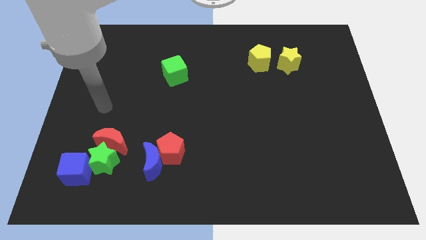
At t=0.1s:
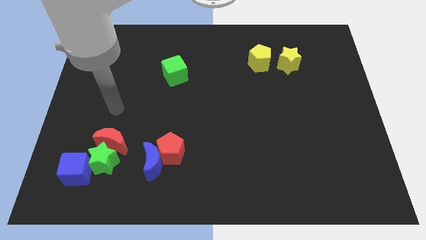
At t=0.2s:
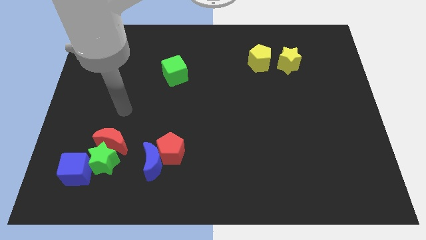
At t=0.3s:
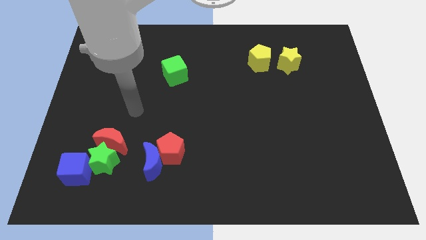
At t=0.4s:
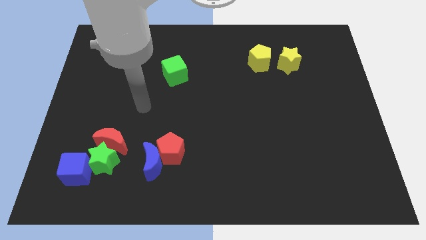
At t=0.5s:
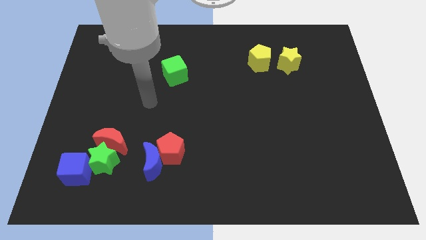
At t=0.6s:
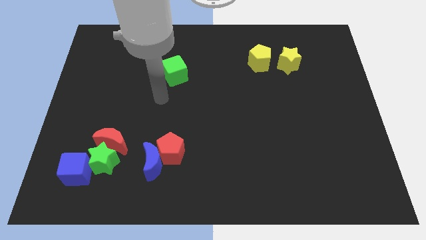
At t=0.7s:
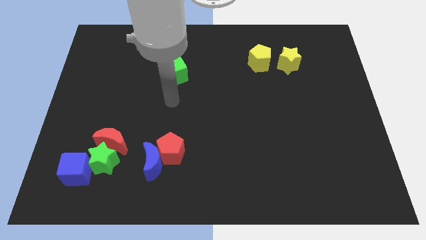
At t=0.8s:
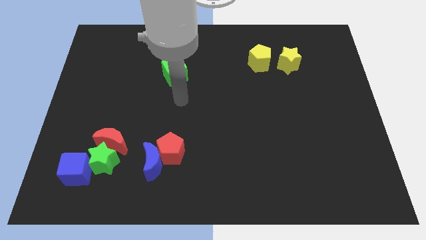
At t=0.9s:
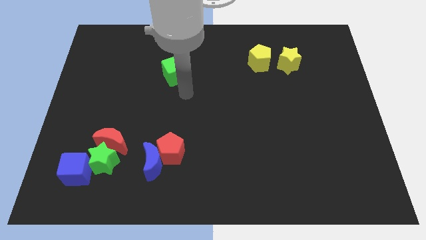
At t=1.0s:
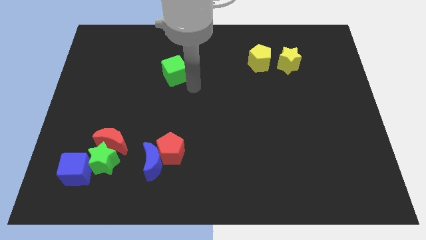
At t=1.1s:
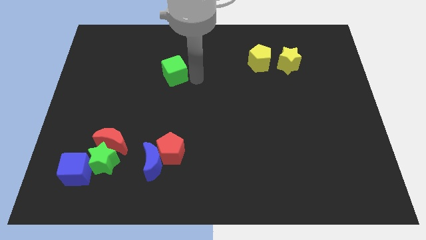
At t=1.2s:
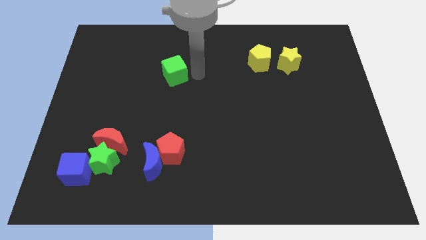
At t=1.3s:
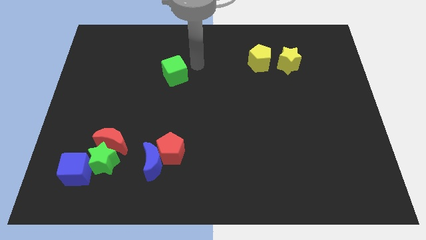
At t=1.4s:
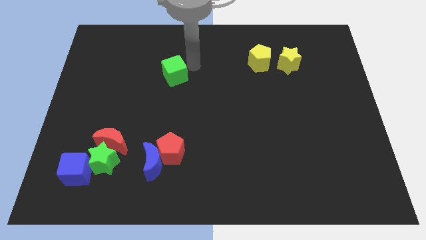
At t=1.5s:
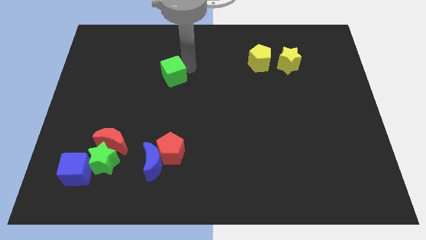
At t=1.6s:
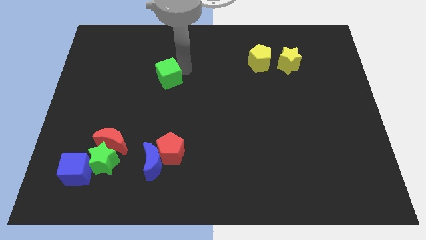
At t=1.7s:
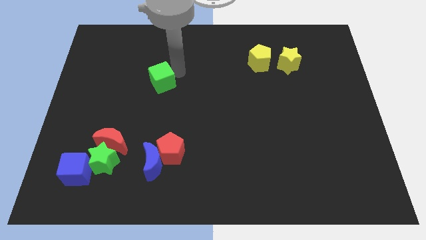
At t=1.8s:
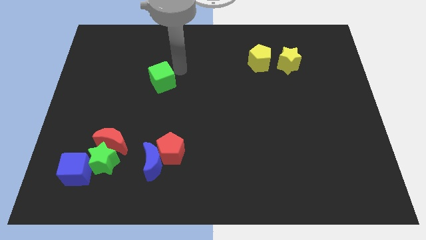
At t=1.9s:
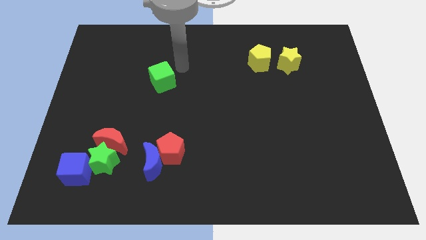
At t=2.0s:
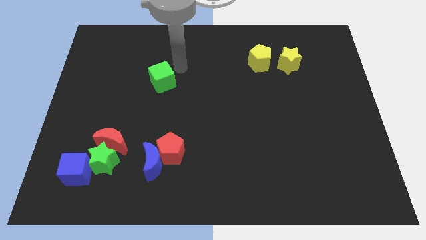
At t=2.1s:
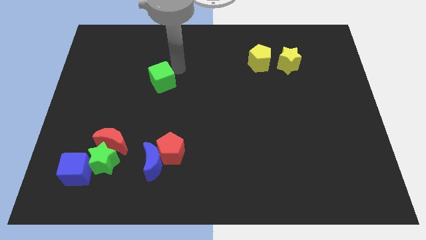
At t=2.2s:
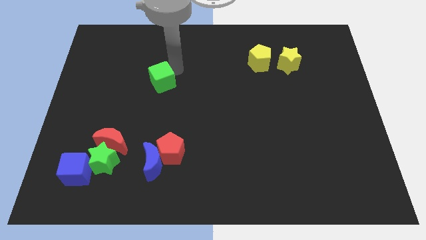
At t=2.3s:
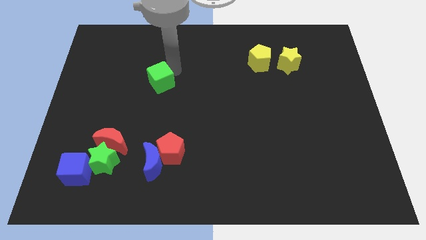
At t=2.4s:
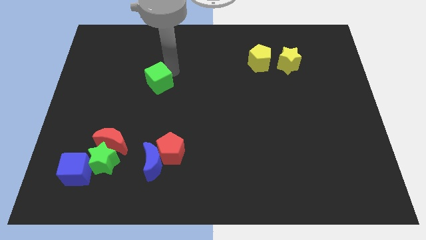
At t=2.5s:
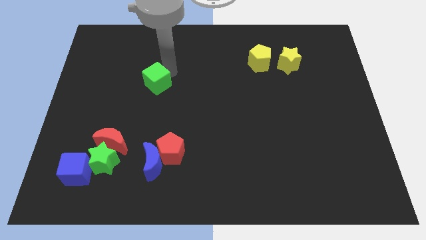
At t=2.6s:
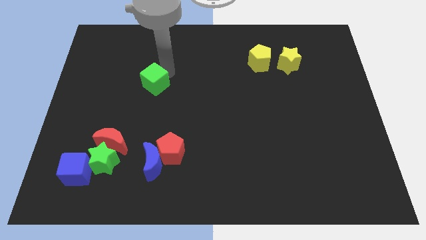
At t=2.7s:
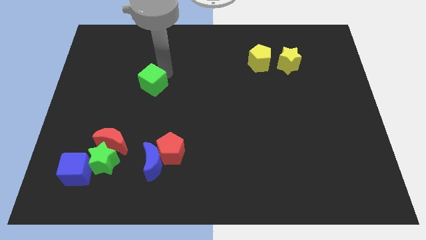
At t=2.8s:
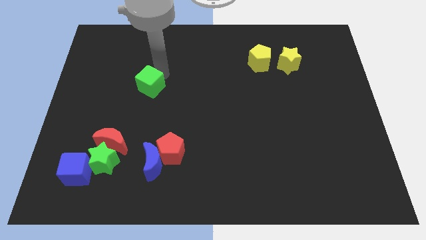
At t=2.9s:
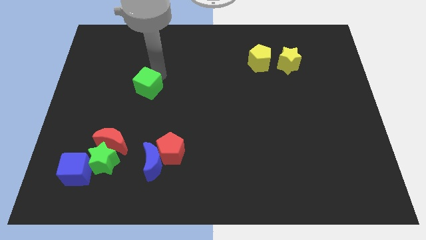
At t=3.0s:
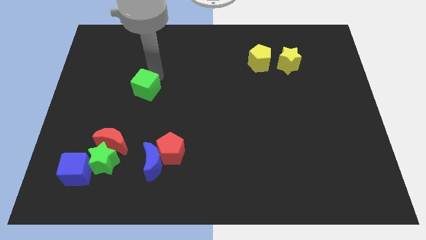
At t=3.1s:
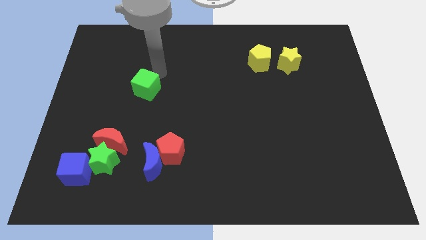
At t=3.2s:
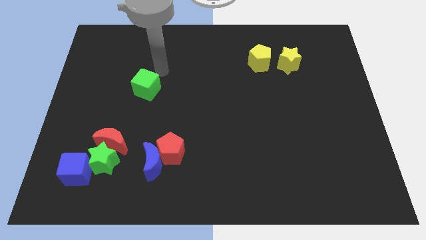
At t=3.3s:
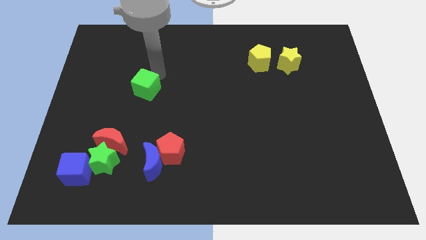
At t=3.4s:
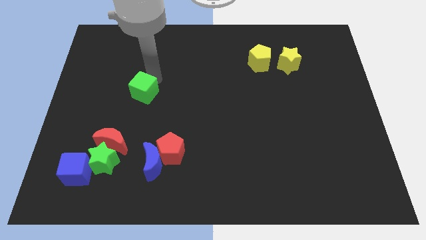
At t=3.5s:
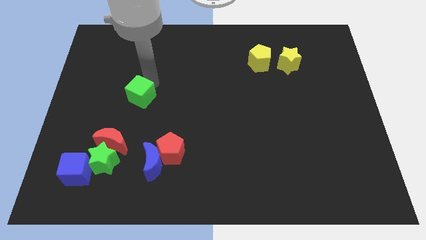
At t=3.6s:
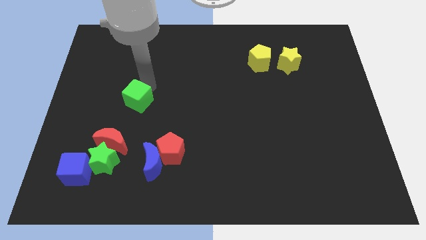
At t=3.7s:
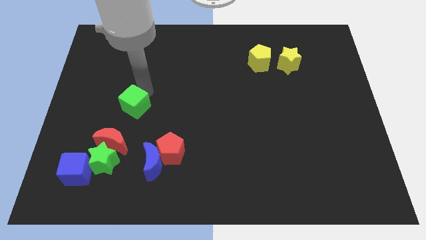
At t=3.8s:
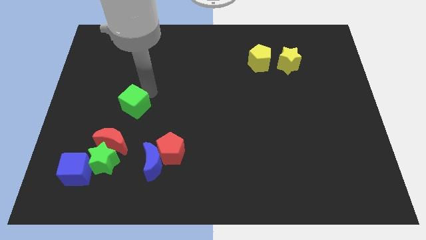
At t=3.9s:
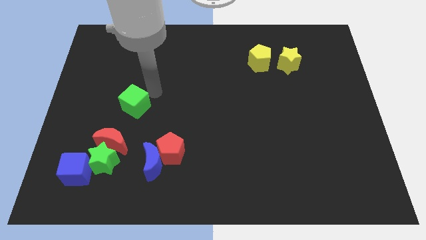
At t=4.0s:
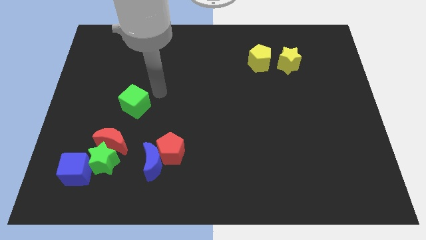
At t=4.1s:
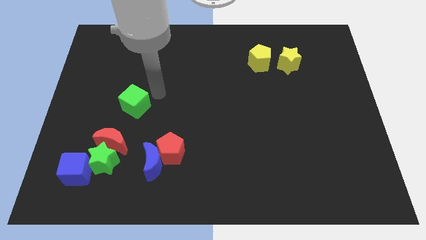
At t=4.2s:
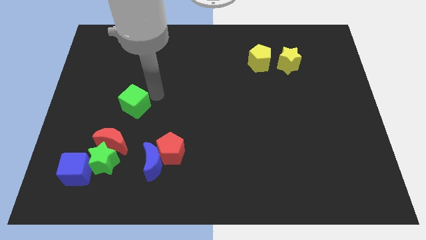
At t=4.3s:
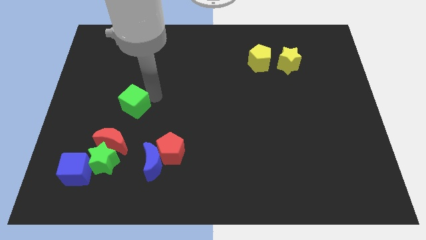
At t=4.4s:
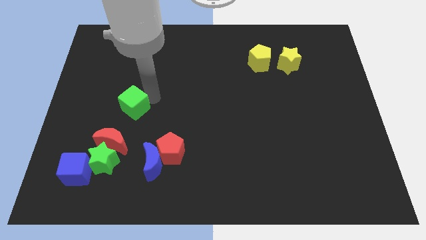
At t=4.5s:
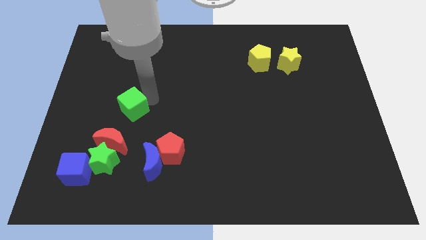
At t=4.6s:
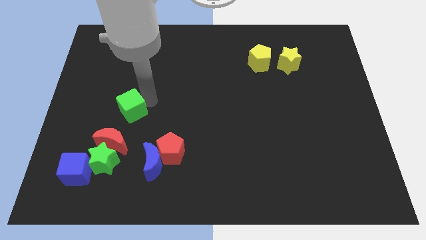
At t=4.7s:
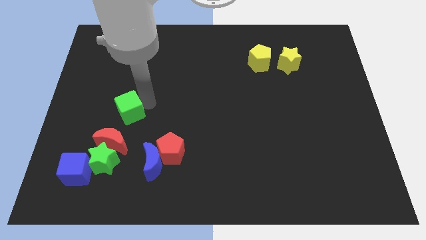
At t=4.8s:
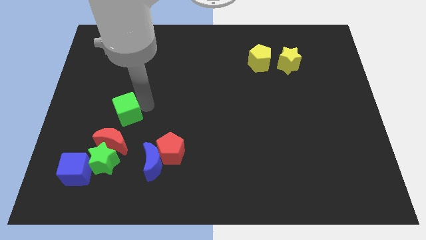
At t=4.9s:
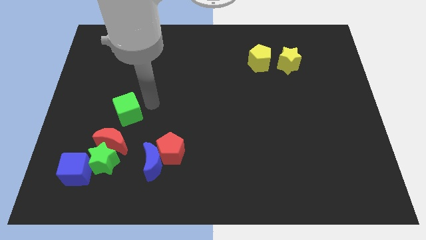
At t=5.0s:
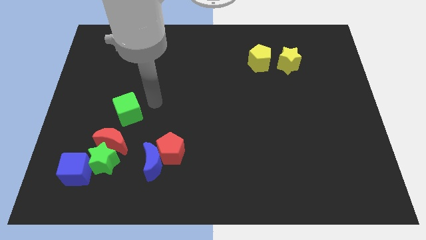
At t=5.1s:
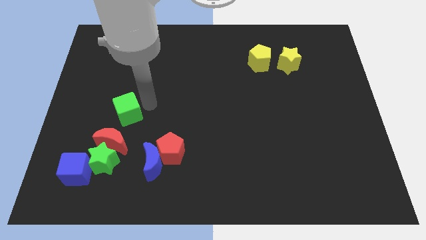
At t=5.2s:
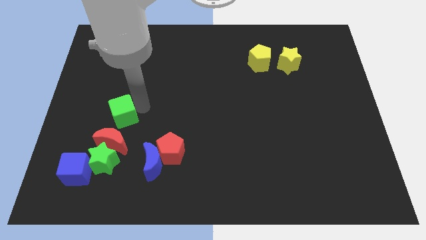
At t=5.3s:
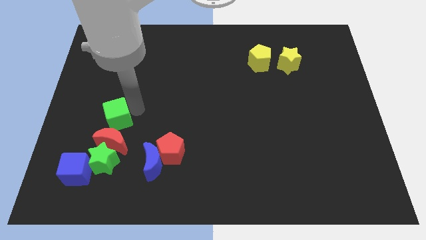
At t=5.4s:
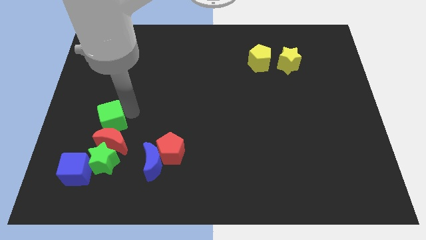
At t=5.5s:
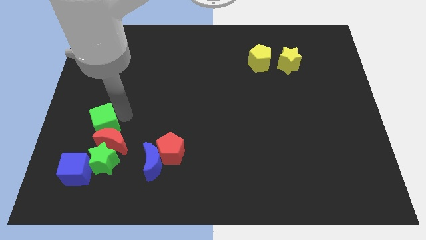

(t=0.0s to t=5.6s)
push the green cube to the top side of the blue cube

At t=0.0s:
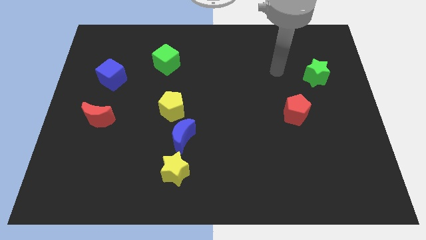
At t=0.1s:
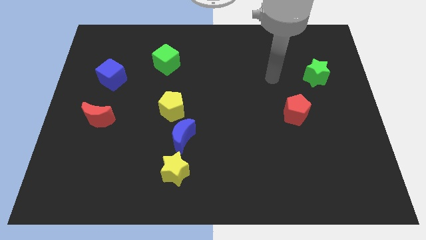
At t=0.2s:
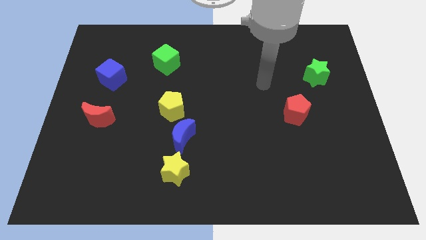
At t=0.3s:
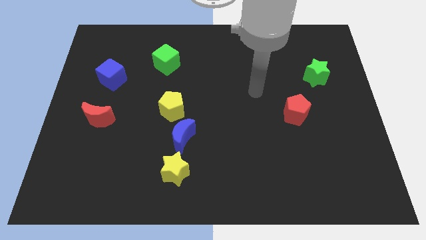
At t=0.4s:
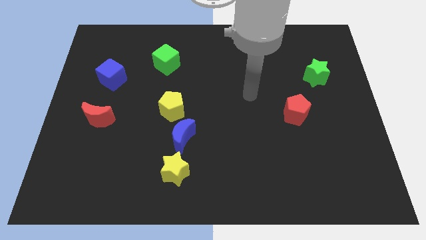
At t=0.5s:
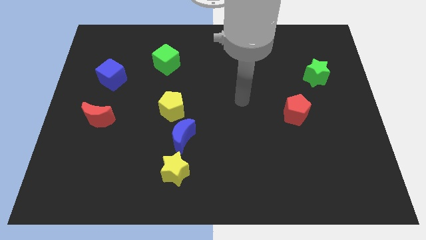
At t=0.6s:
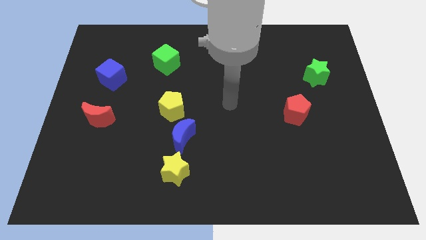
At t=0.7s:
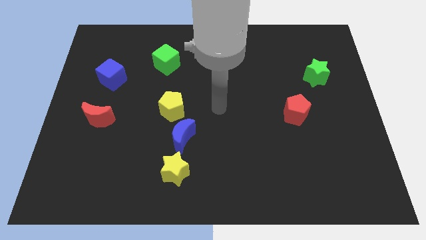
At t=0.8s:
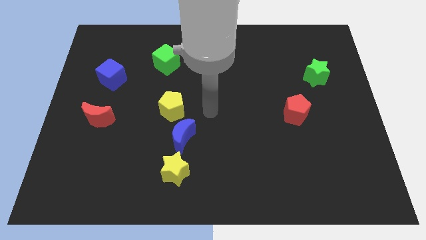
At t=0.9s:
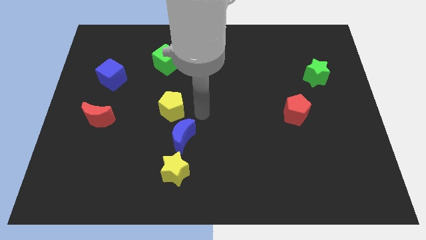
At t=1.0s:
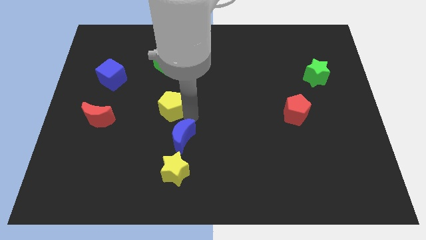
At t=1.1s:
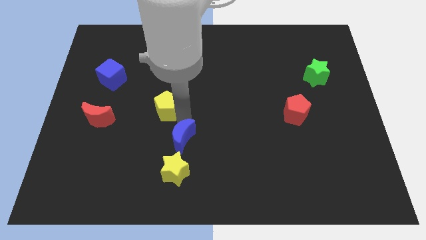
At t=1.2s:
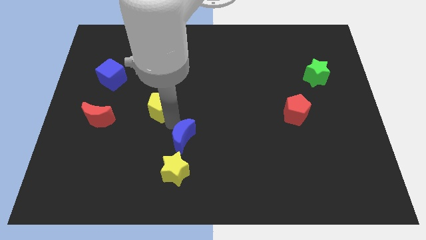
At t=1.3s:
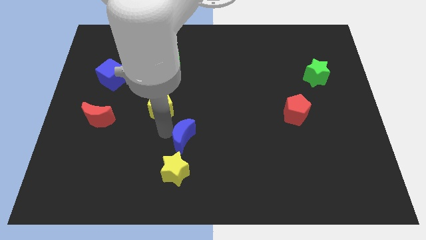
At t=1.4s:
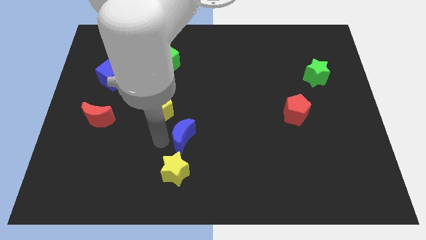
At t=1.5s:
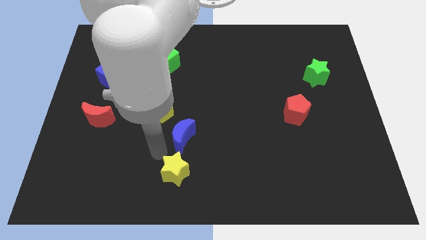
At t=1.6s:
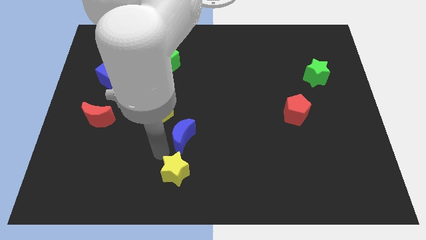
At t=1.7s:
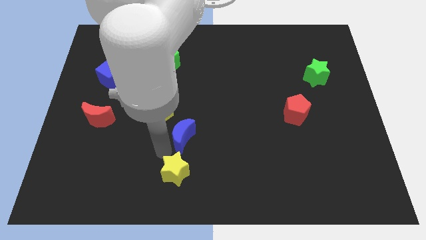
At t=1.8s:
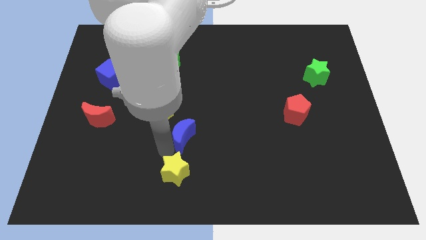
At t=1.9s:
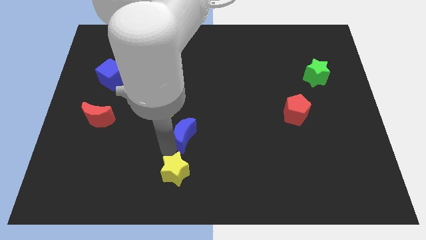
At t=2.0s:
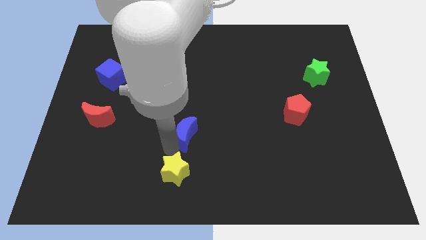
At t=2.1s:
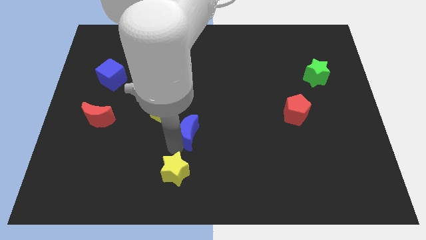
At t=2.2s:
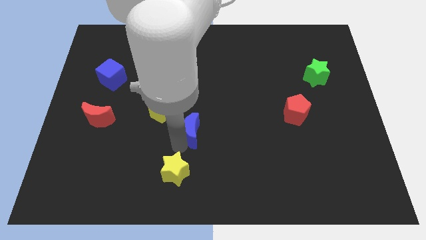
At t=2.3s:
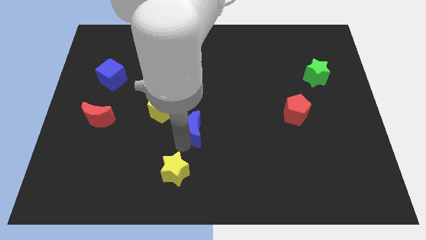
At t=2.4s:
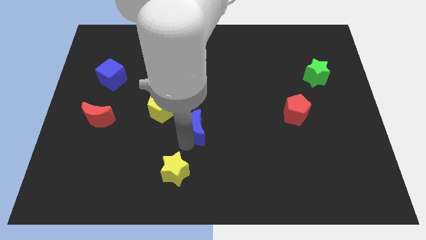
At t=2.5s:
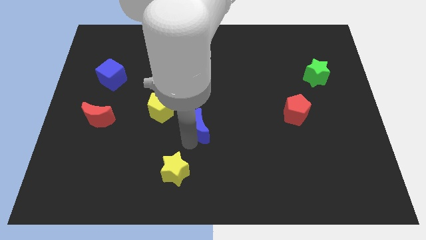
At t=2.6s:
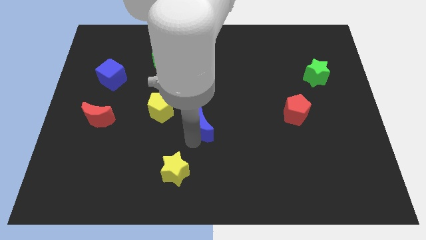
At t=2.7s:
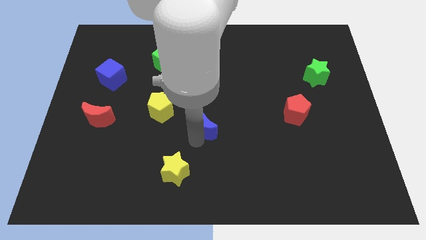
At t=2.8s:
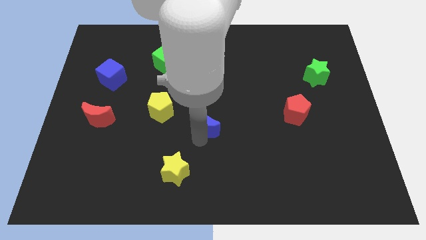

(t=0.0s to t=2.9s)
slide the blue moon to the right of the yellow pentagon
